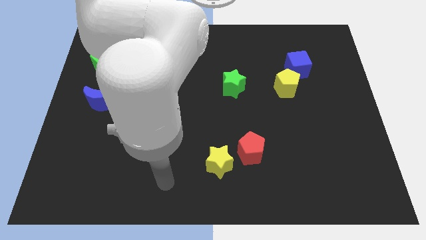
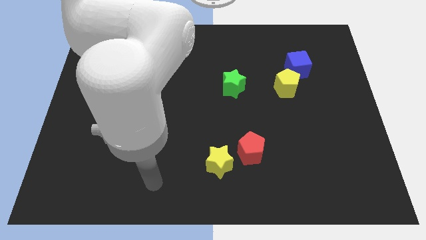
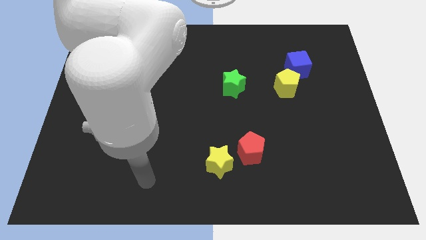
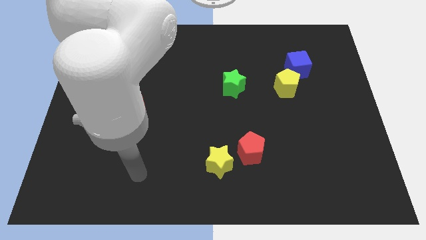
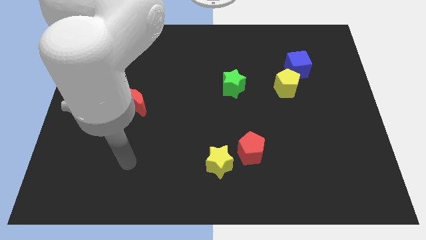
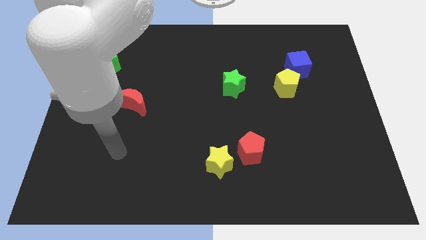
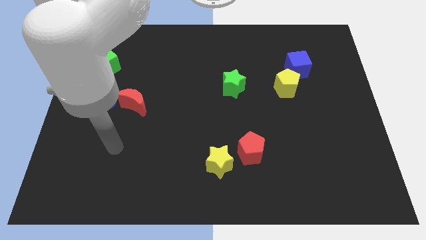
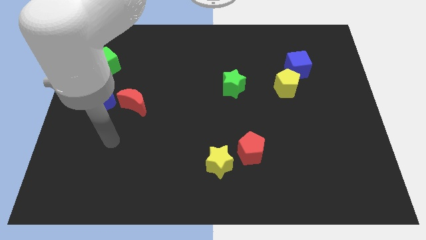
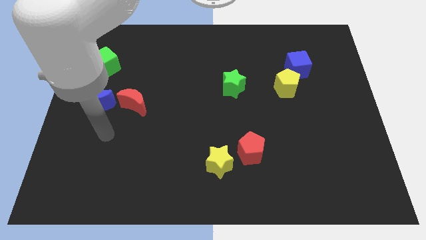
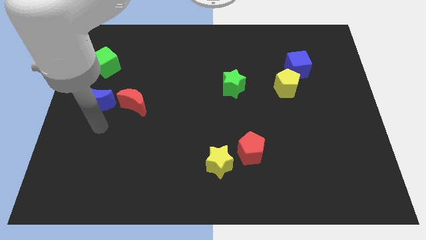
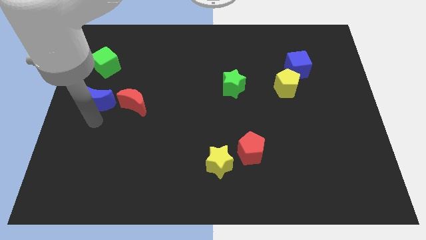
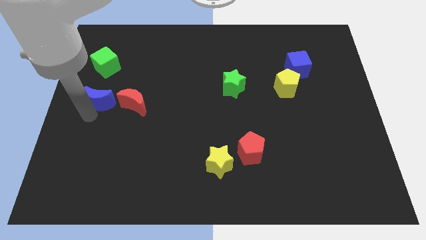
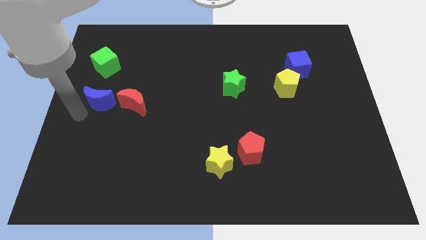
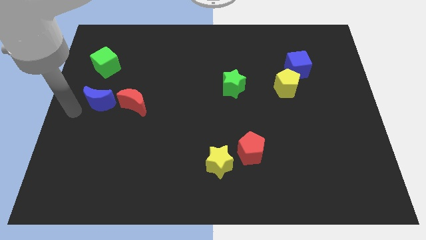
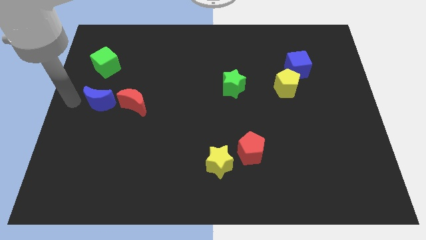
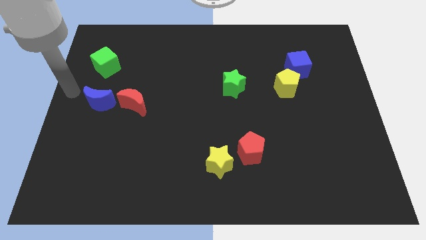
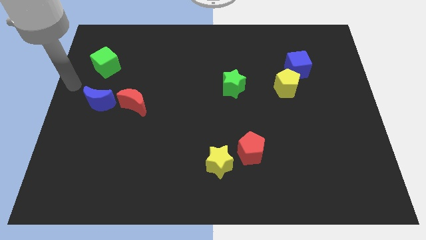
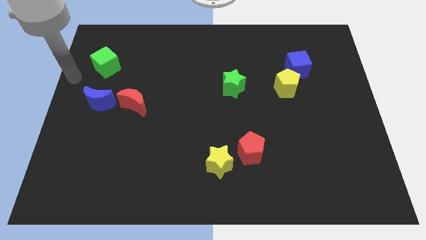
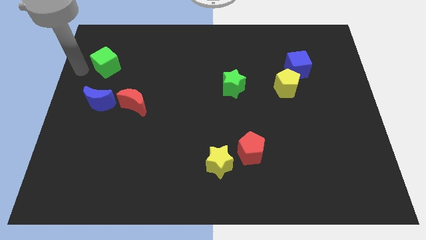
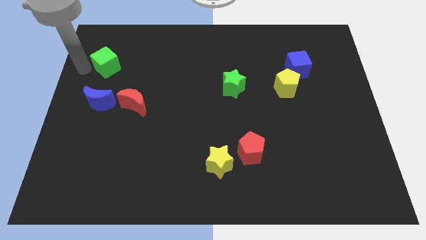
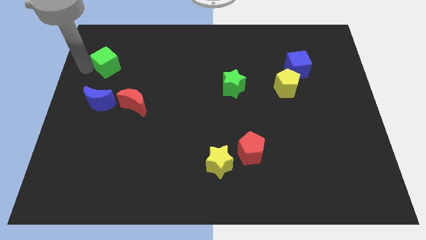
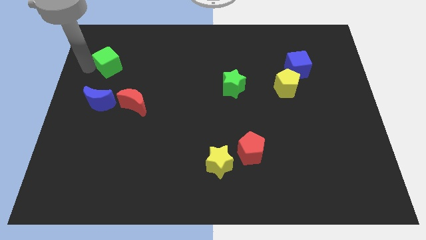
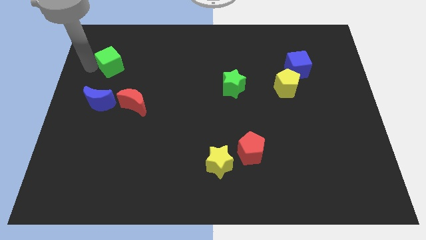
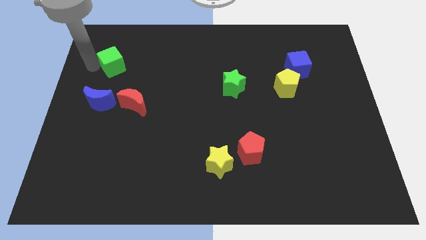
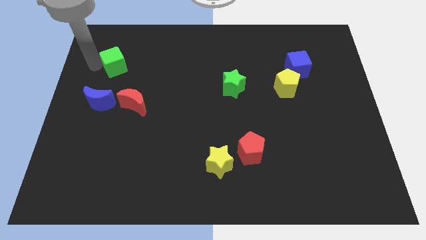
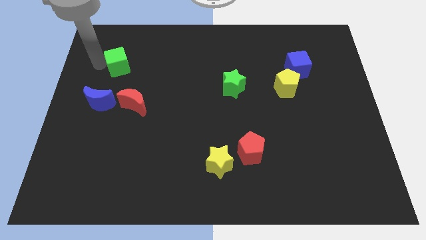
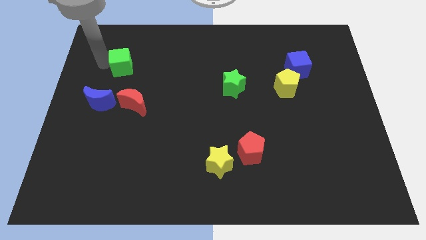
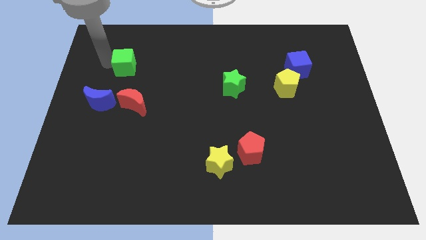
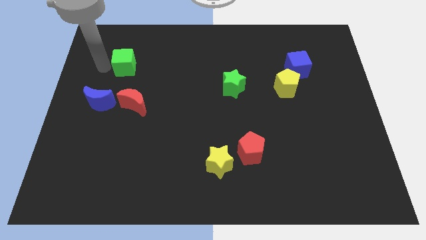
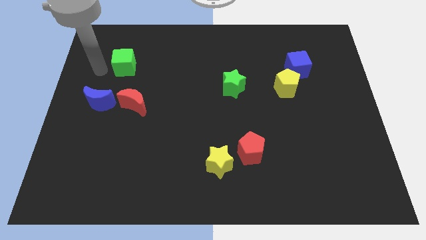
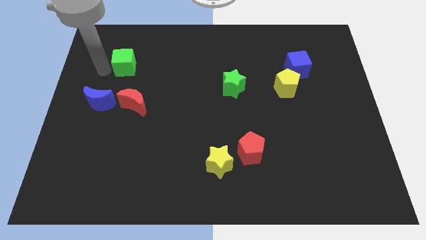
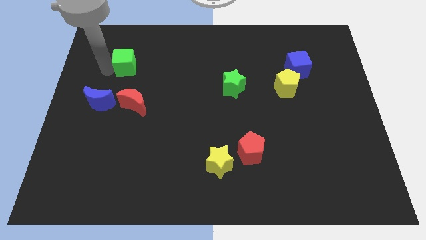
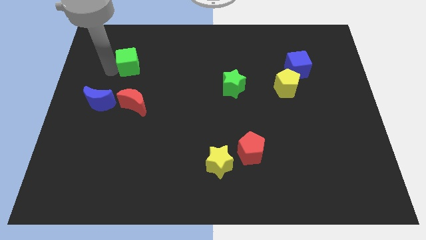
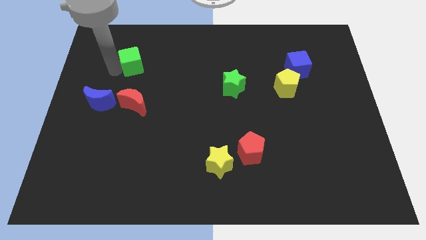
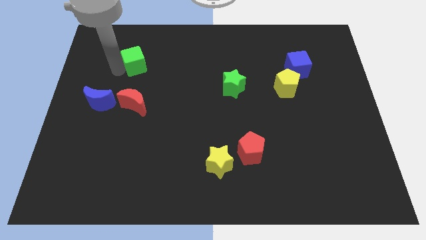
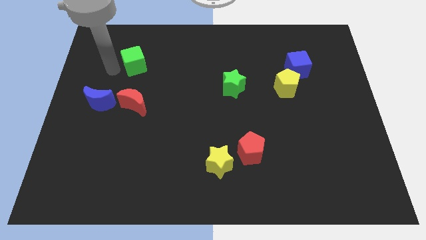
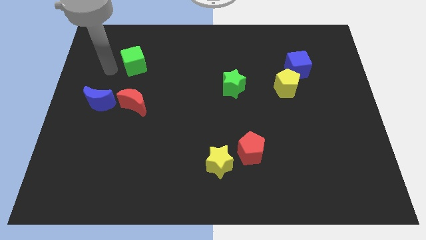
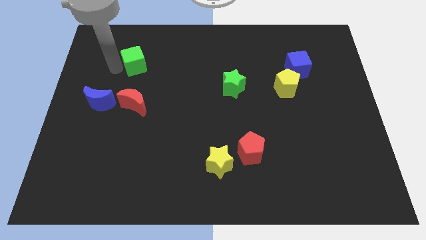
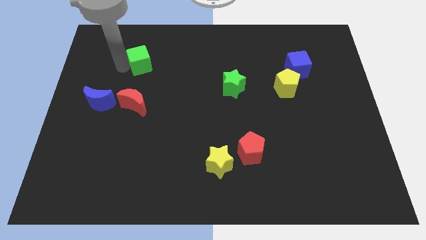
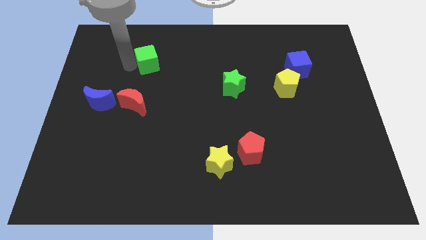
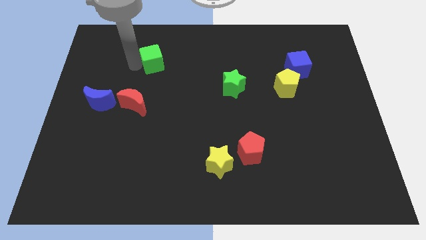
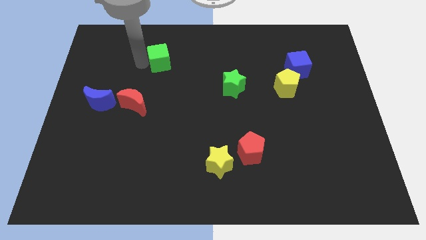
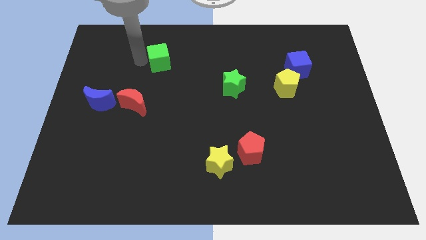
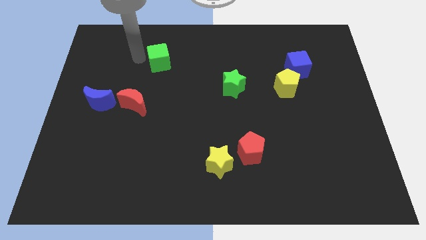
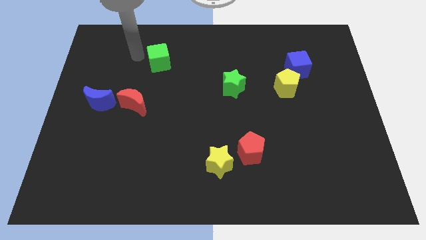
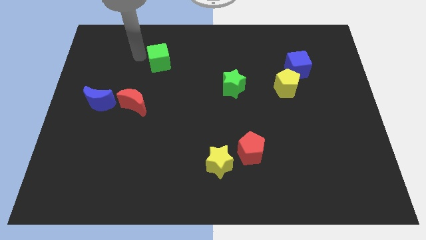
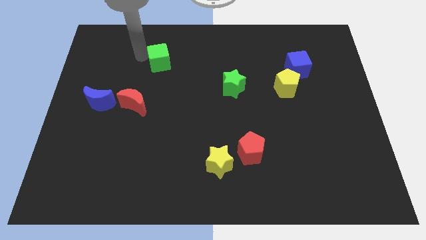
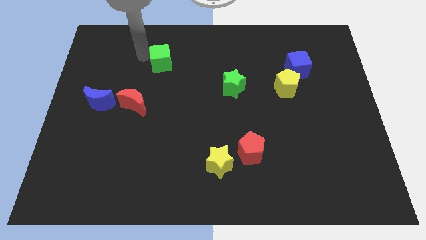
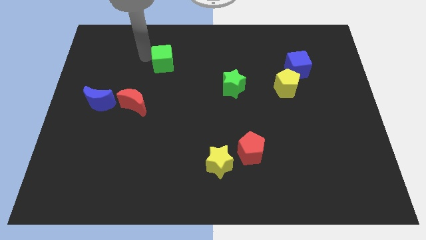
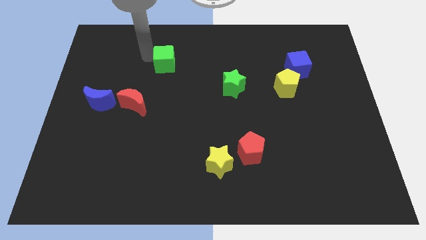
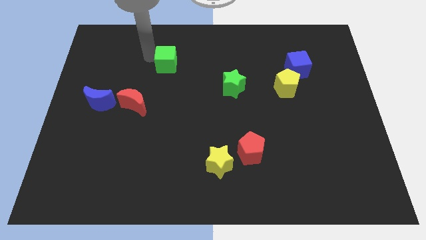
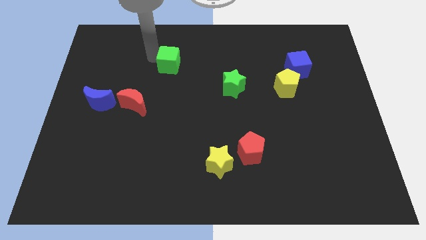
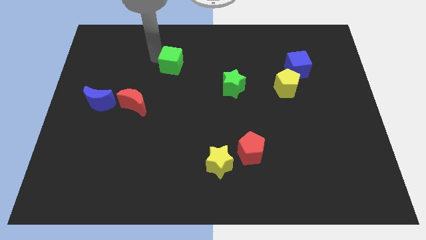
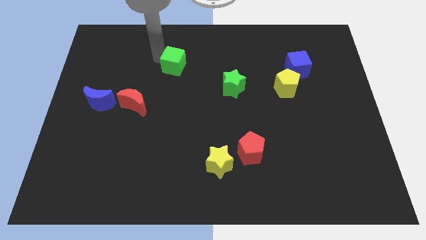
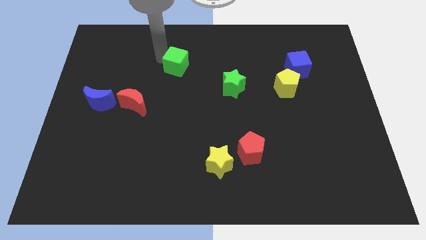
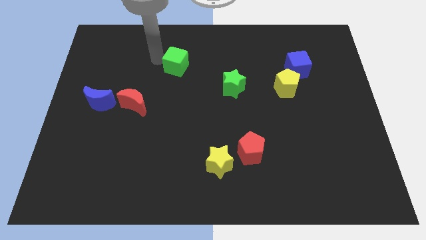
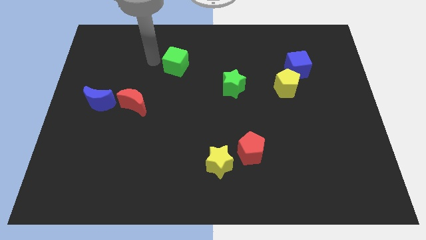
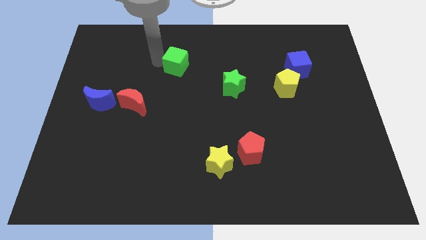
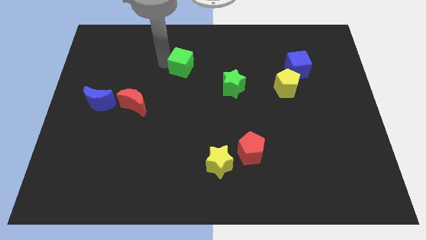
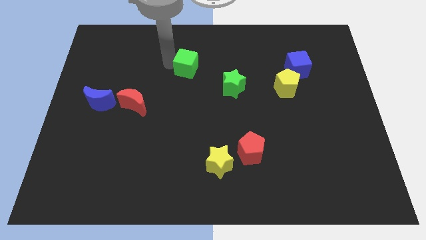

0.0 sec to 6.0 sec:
slide the green cube right

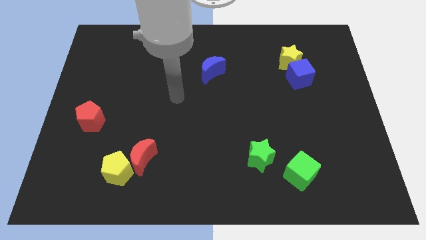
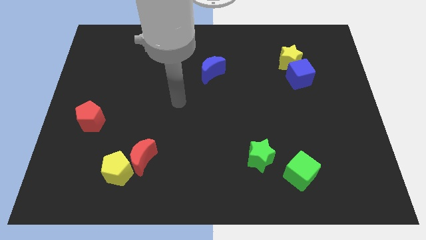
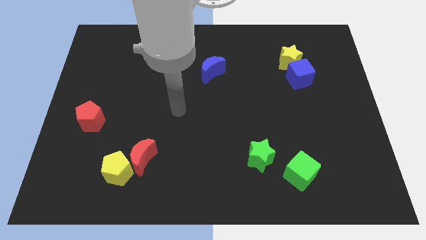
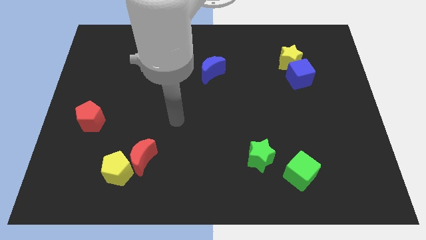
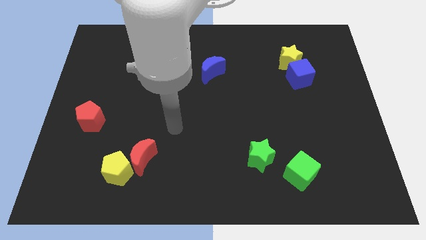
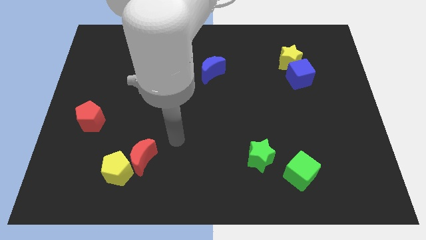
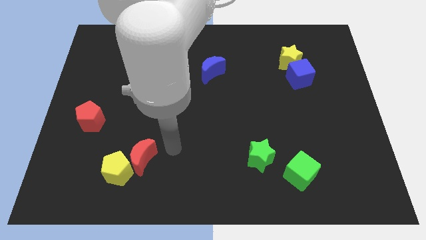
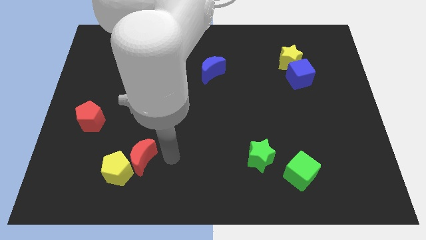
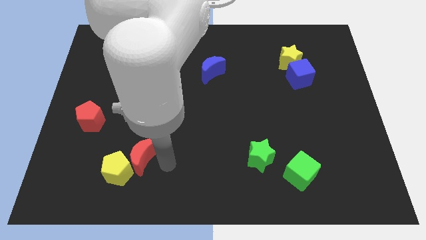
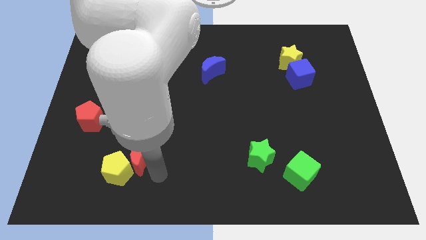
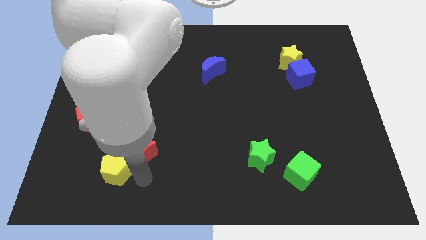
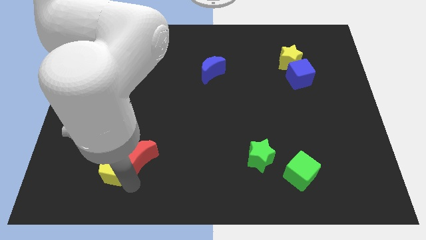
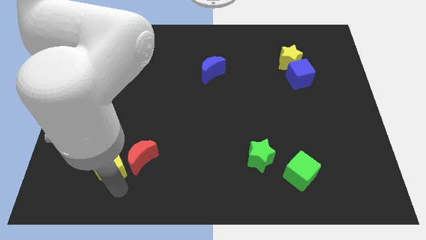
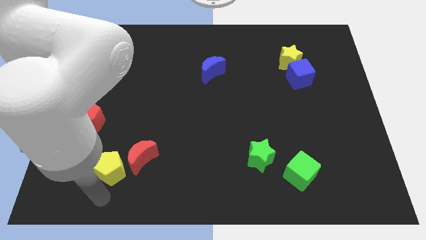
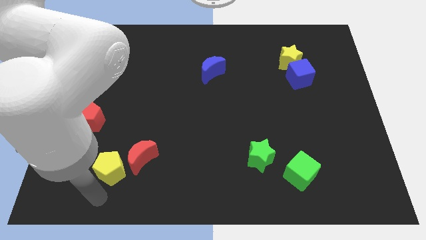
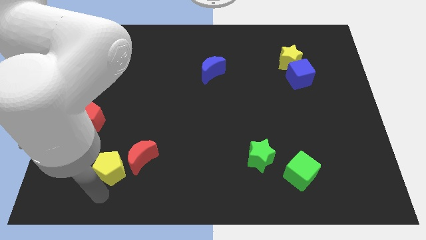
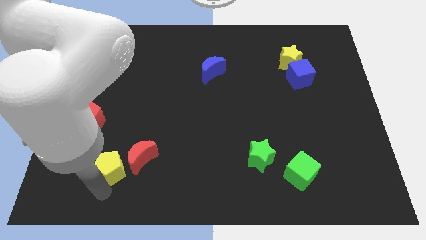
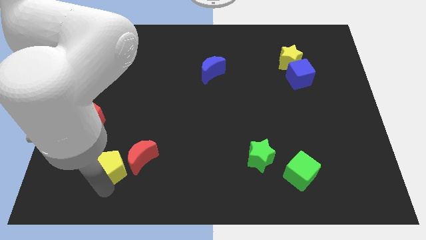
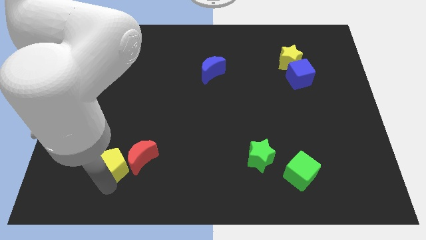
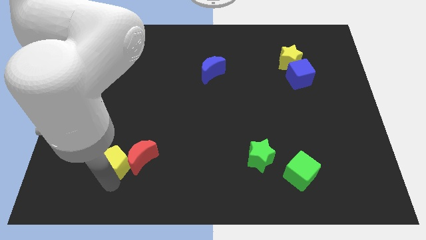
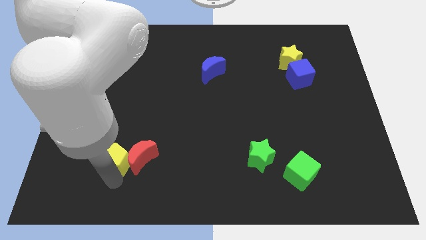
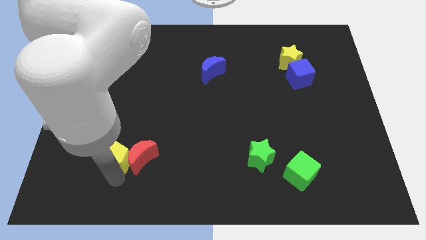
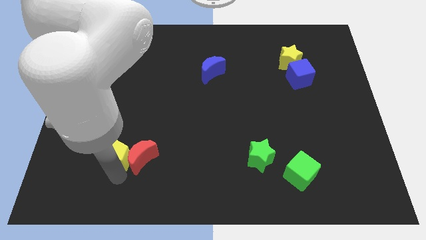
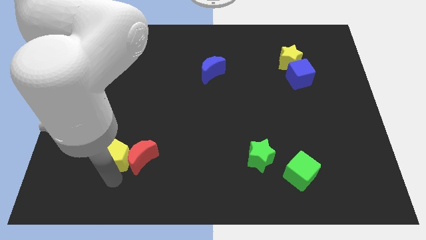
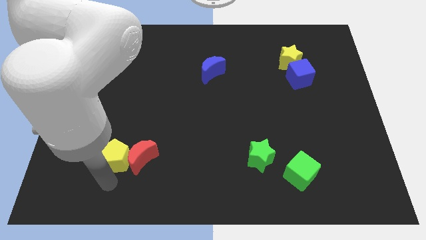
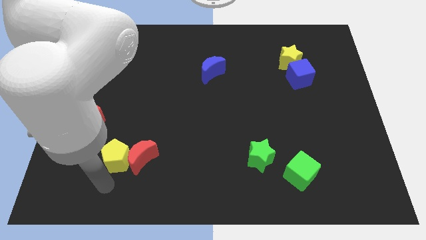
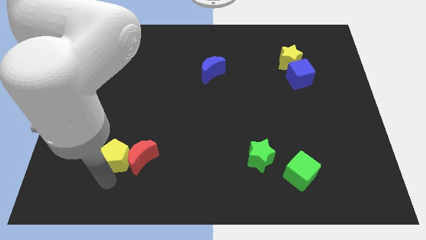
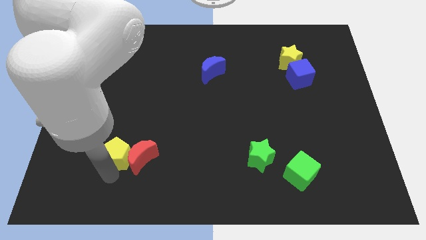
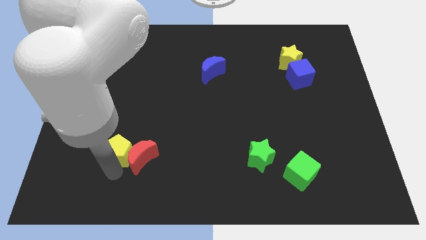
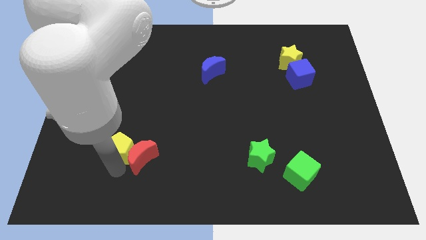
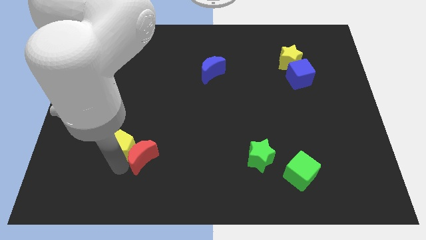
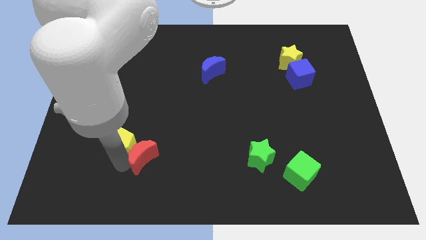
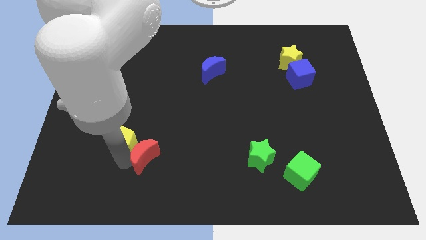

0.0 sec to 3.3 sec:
slightly slide the yellow pentagon up
